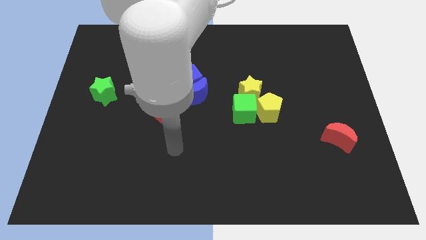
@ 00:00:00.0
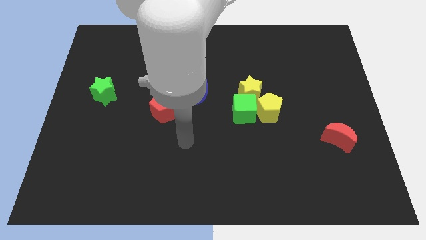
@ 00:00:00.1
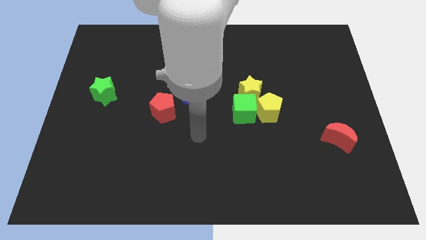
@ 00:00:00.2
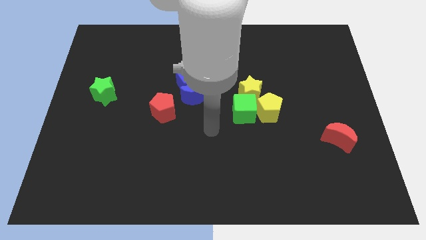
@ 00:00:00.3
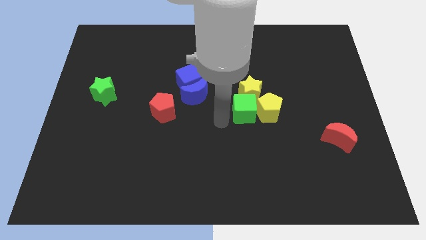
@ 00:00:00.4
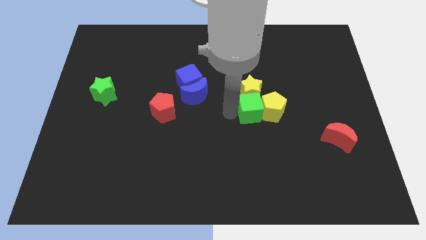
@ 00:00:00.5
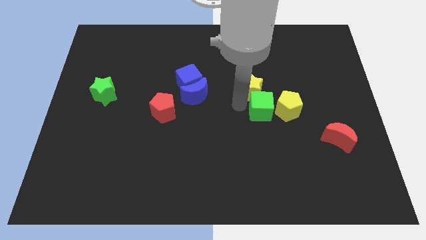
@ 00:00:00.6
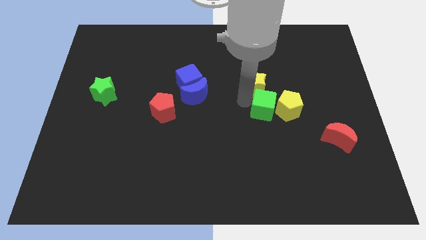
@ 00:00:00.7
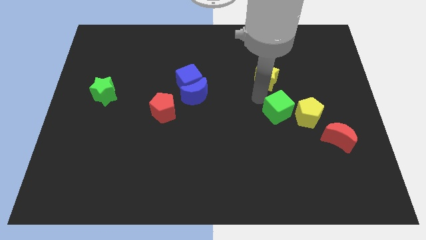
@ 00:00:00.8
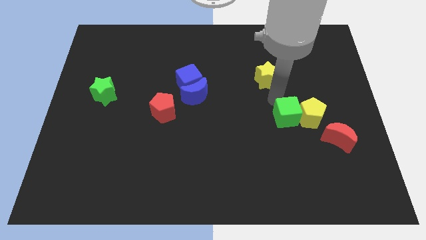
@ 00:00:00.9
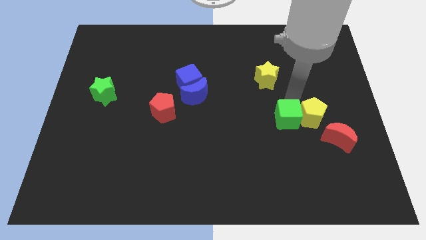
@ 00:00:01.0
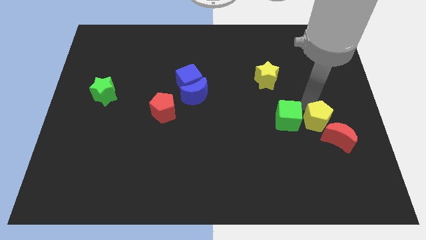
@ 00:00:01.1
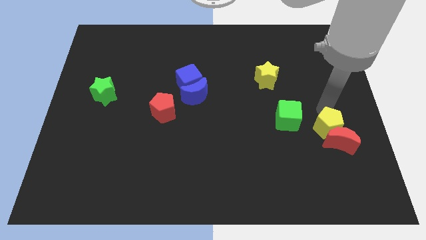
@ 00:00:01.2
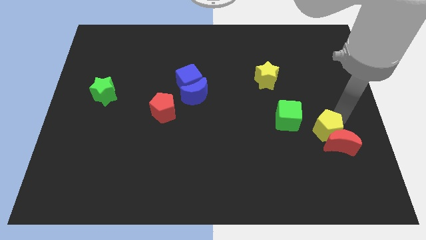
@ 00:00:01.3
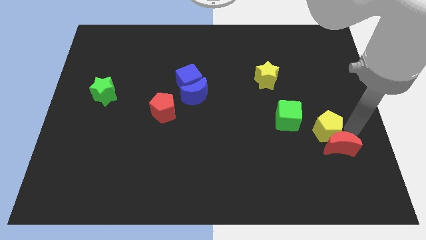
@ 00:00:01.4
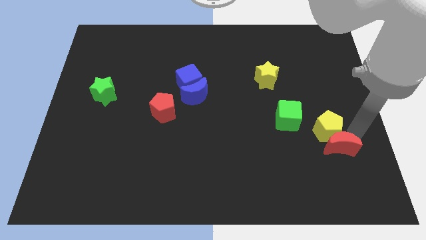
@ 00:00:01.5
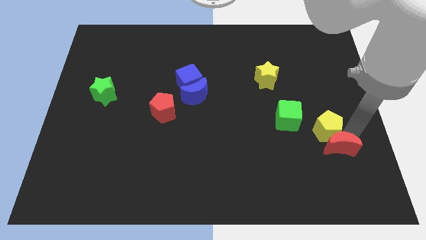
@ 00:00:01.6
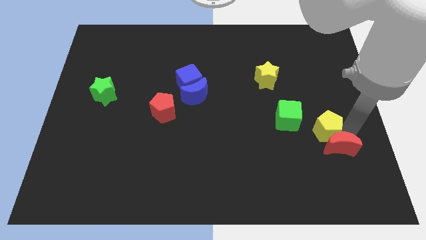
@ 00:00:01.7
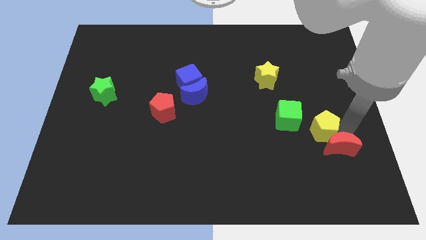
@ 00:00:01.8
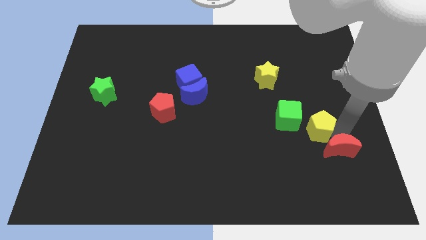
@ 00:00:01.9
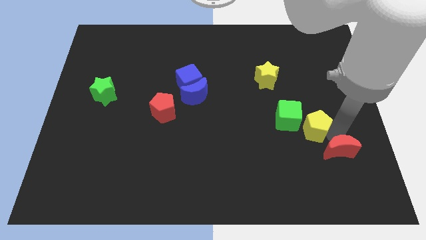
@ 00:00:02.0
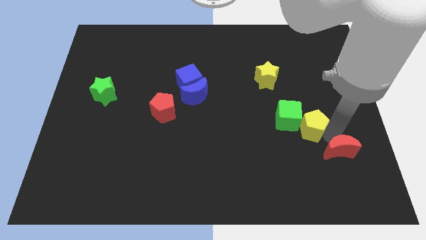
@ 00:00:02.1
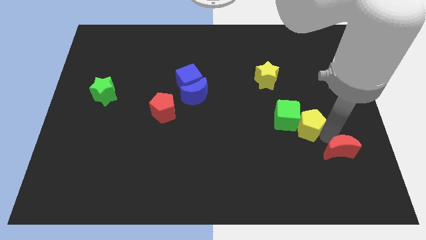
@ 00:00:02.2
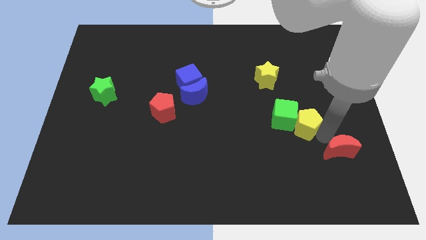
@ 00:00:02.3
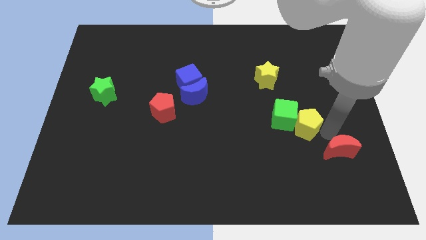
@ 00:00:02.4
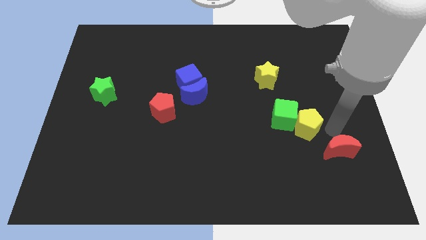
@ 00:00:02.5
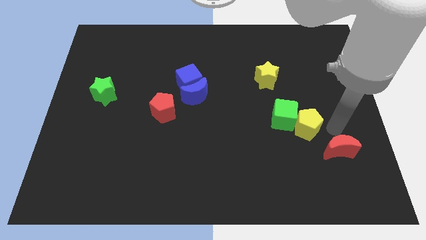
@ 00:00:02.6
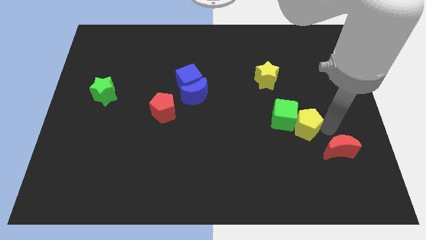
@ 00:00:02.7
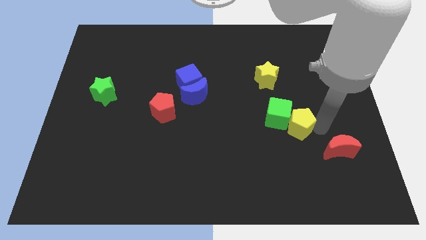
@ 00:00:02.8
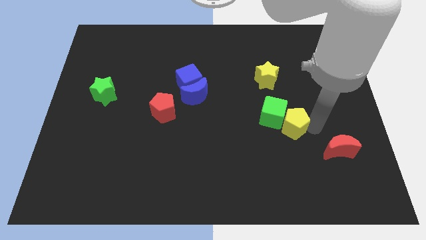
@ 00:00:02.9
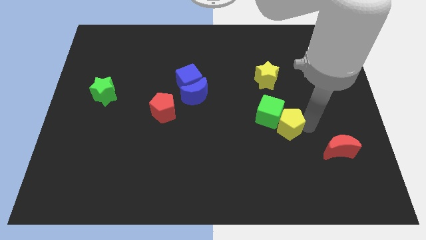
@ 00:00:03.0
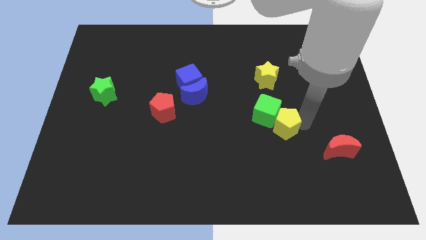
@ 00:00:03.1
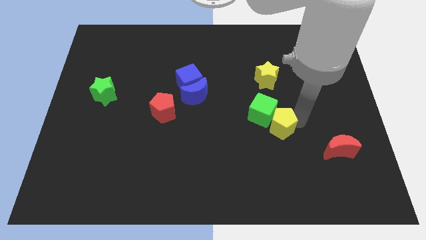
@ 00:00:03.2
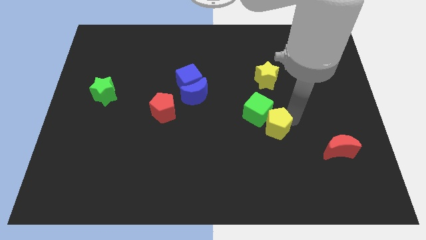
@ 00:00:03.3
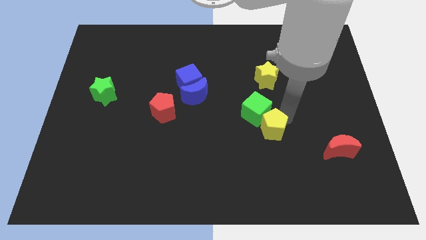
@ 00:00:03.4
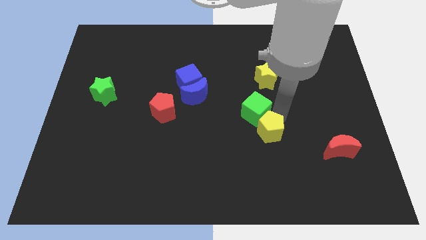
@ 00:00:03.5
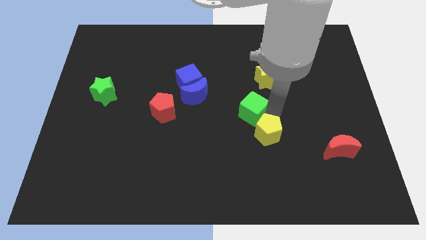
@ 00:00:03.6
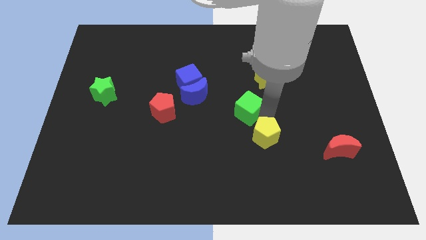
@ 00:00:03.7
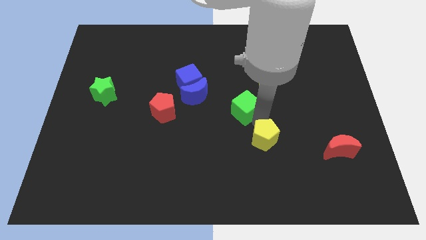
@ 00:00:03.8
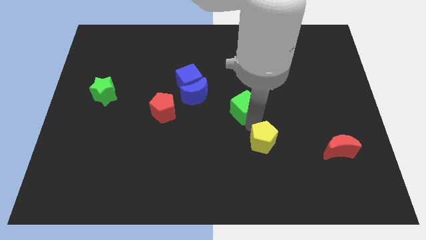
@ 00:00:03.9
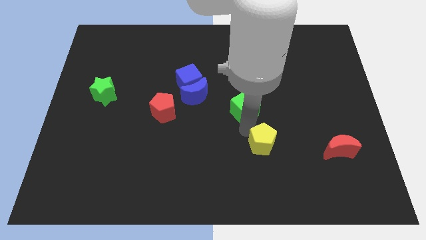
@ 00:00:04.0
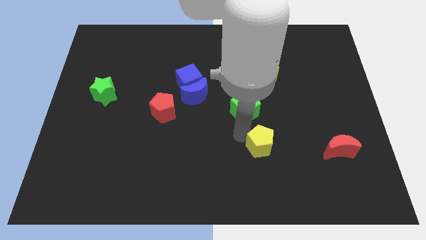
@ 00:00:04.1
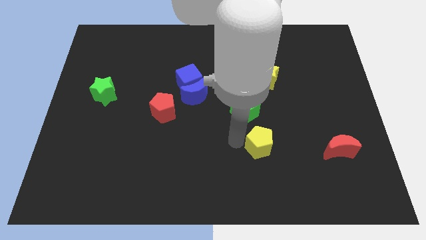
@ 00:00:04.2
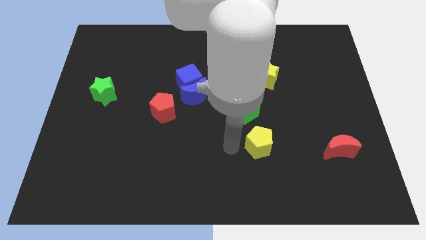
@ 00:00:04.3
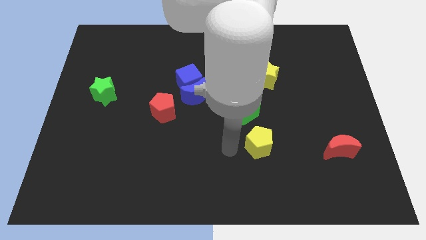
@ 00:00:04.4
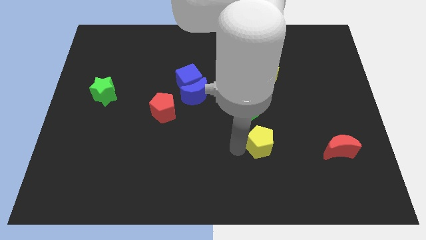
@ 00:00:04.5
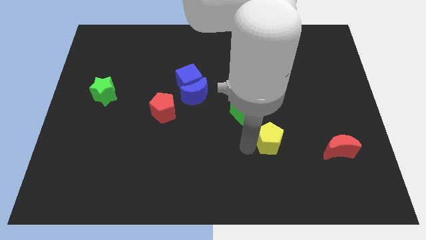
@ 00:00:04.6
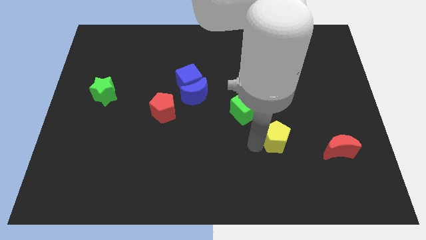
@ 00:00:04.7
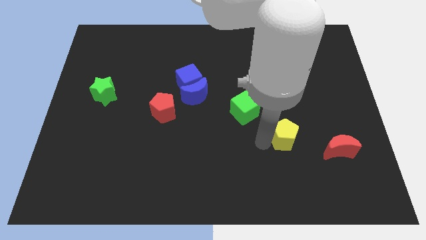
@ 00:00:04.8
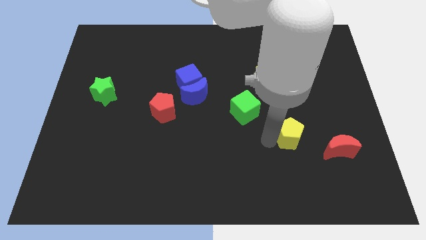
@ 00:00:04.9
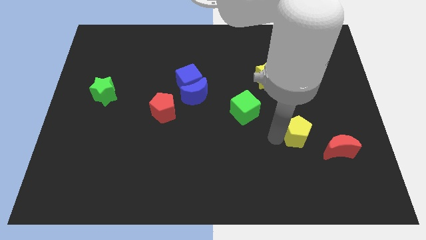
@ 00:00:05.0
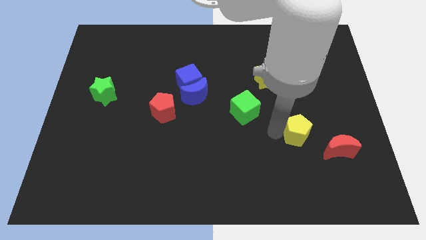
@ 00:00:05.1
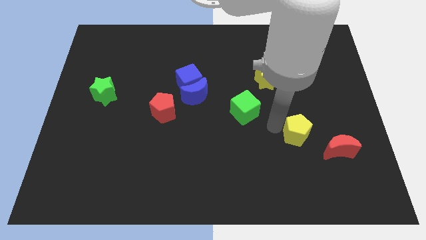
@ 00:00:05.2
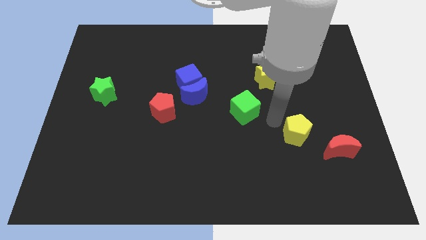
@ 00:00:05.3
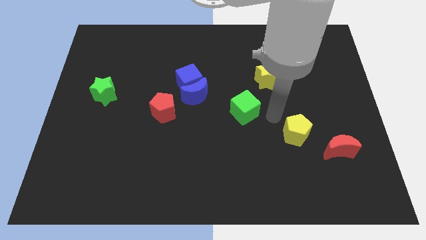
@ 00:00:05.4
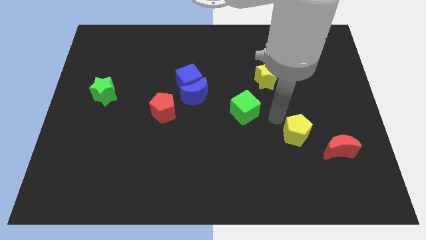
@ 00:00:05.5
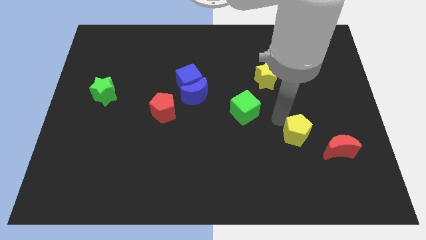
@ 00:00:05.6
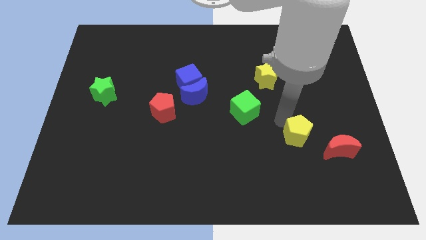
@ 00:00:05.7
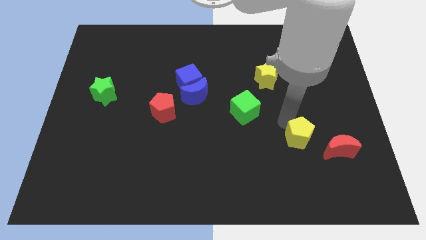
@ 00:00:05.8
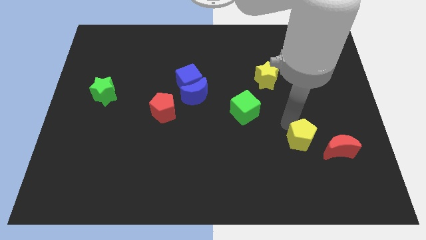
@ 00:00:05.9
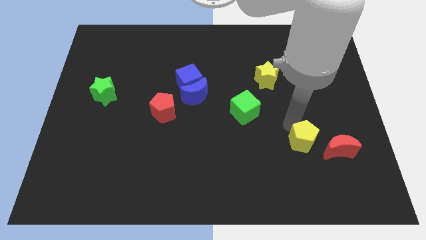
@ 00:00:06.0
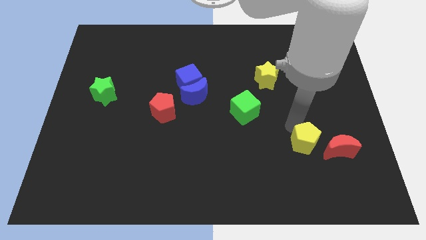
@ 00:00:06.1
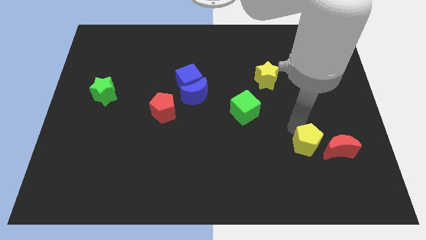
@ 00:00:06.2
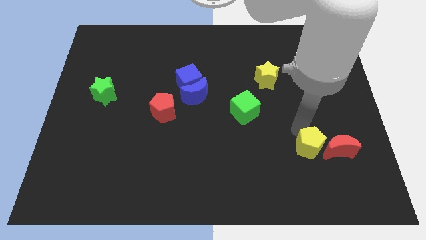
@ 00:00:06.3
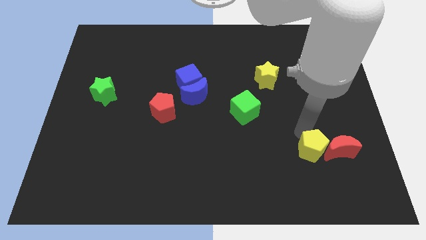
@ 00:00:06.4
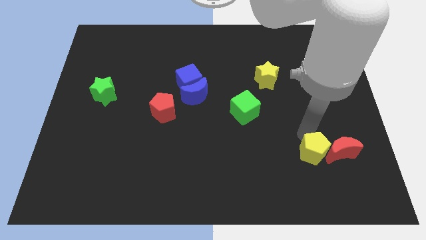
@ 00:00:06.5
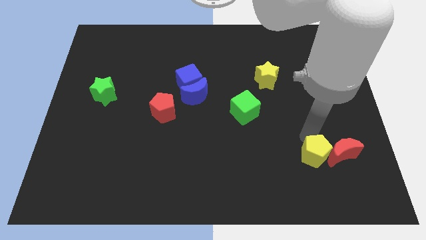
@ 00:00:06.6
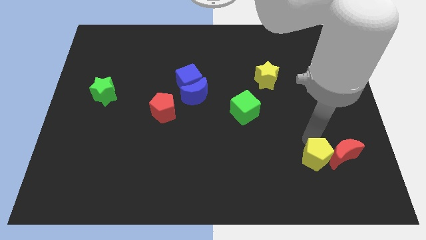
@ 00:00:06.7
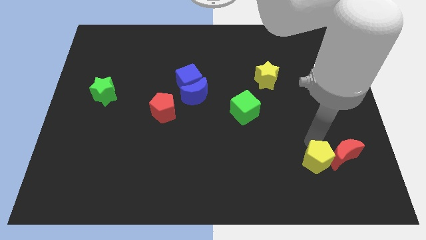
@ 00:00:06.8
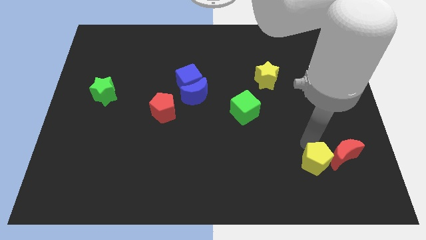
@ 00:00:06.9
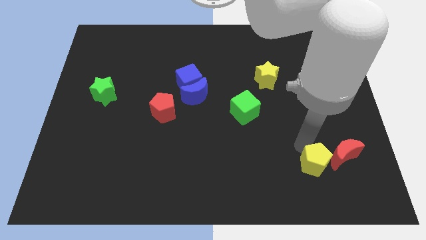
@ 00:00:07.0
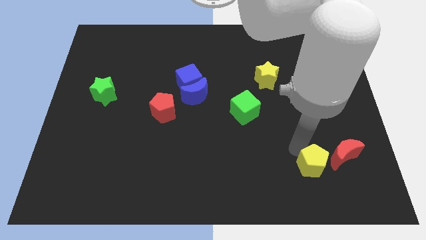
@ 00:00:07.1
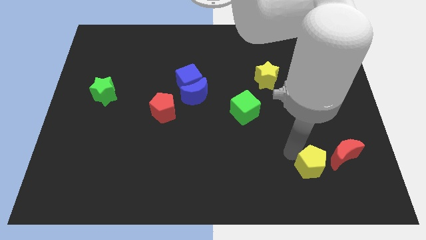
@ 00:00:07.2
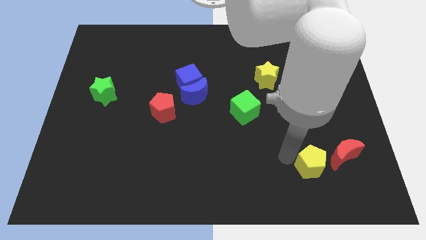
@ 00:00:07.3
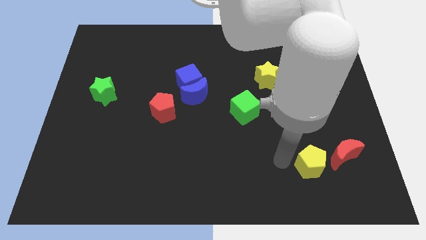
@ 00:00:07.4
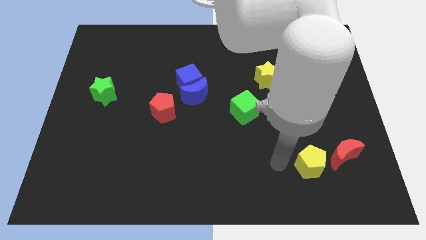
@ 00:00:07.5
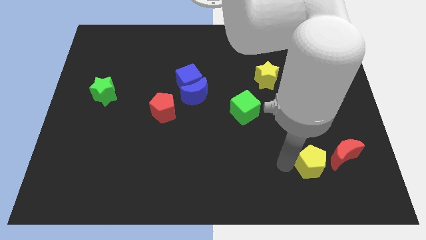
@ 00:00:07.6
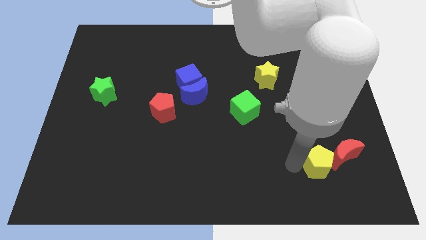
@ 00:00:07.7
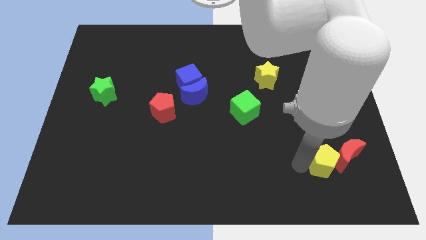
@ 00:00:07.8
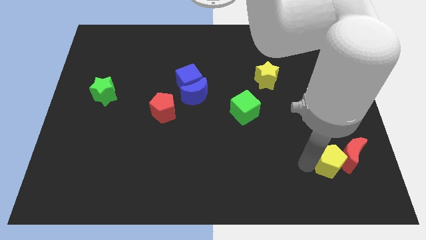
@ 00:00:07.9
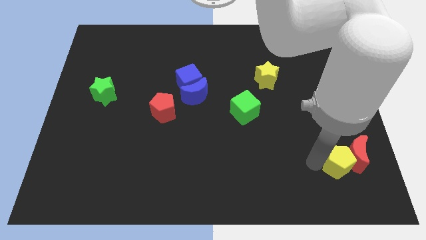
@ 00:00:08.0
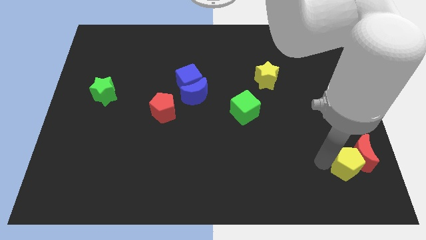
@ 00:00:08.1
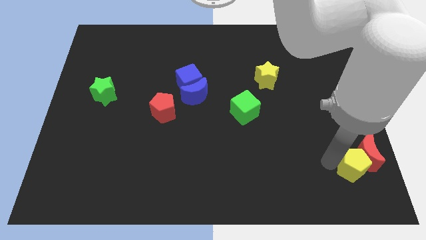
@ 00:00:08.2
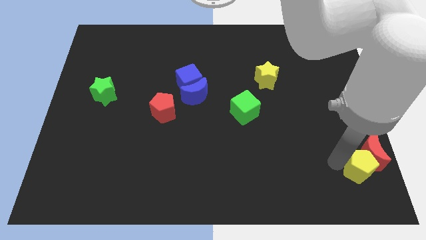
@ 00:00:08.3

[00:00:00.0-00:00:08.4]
push the yellow pentagon to the bottom right
